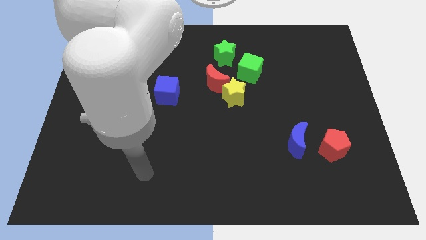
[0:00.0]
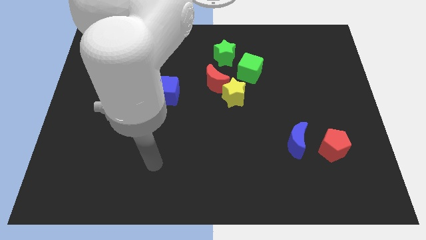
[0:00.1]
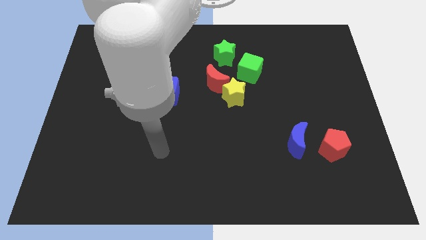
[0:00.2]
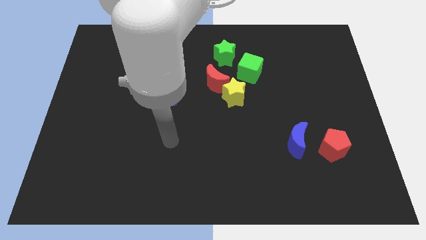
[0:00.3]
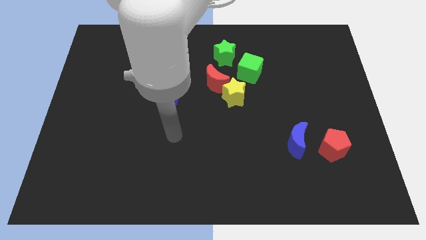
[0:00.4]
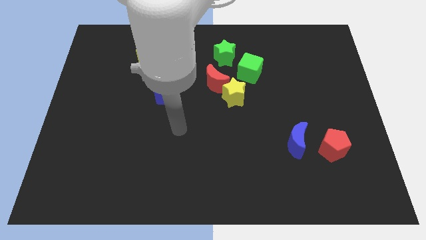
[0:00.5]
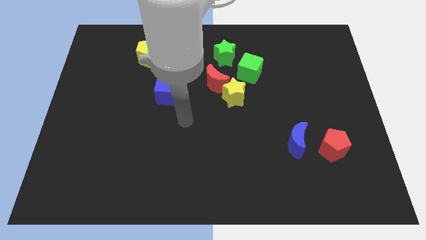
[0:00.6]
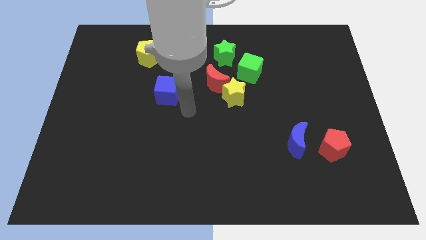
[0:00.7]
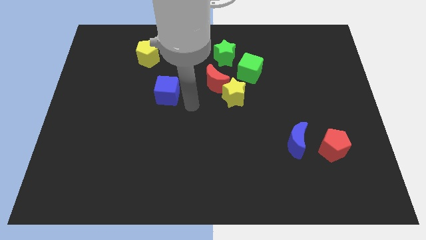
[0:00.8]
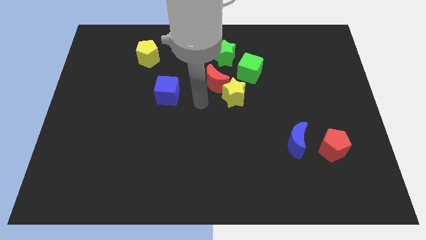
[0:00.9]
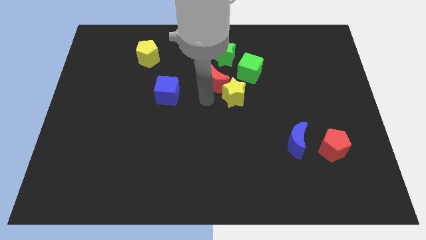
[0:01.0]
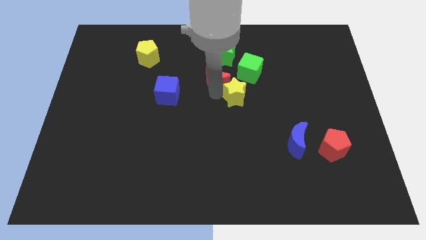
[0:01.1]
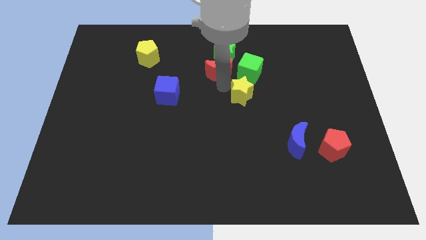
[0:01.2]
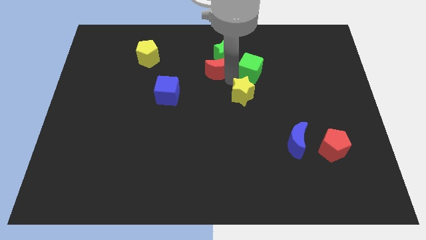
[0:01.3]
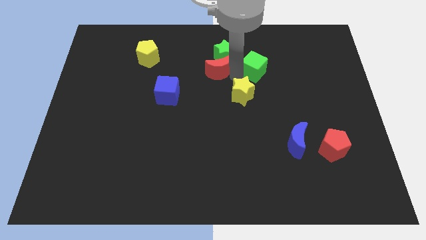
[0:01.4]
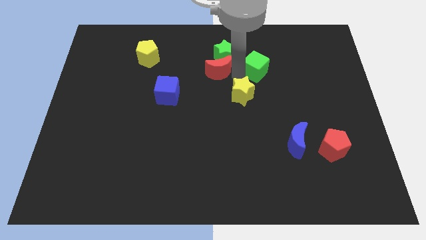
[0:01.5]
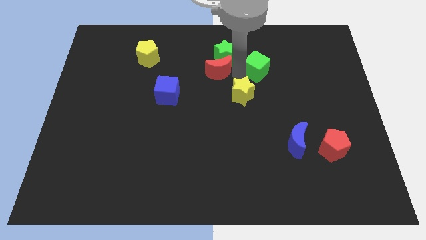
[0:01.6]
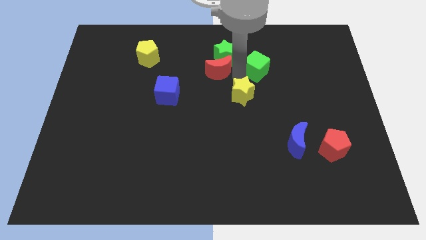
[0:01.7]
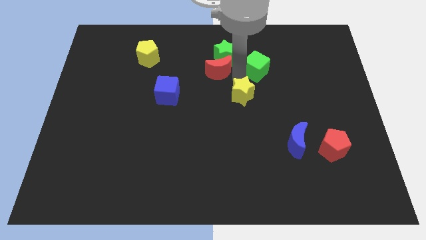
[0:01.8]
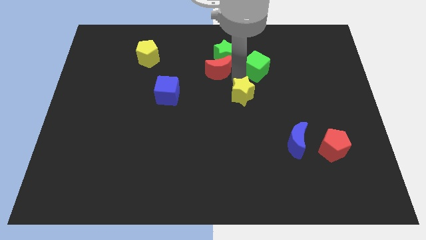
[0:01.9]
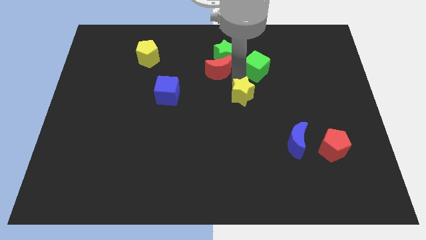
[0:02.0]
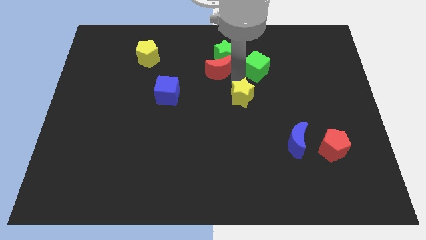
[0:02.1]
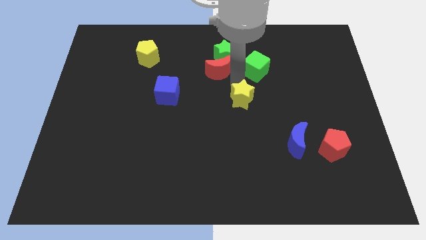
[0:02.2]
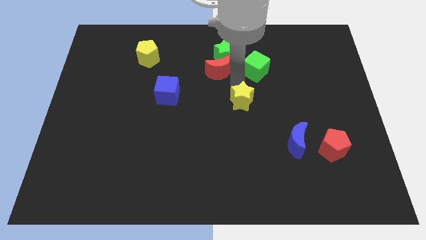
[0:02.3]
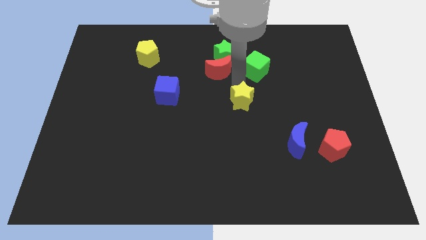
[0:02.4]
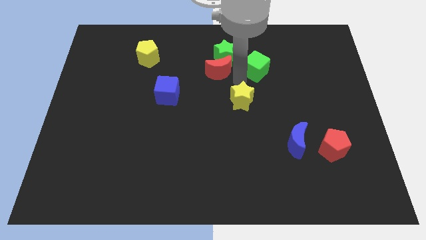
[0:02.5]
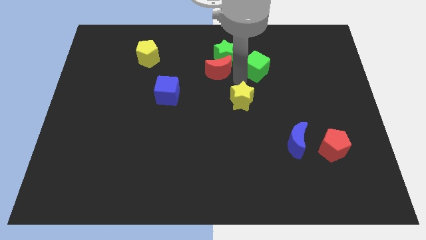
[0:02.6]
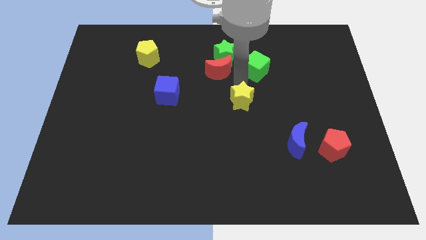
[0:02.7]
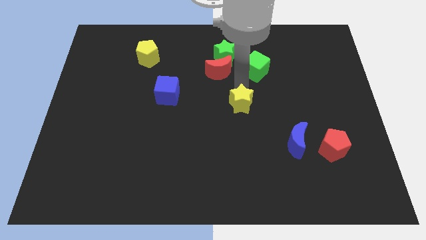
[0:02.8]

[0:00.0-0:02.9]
separate the yellow star from the red moon and green cube

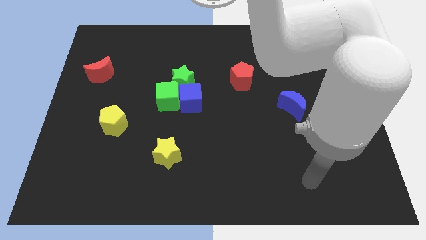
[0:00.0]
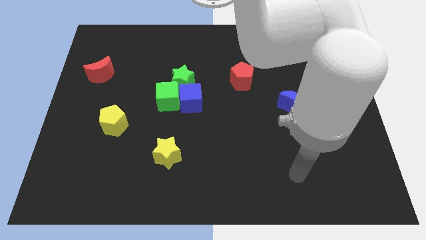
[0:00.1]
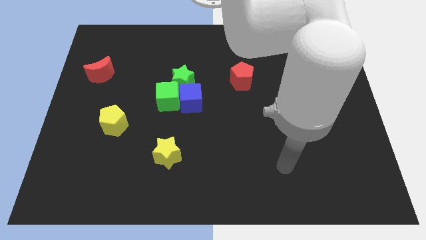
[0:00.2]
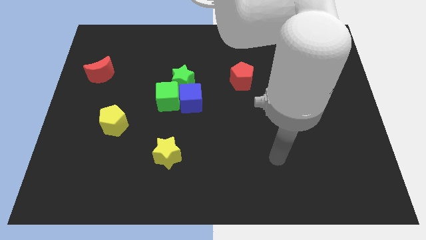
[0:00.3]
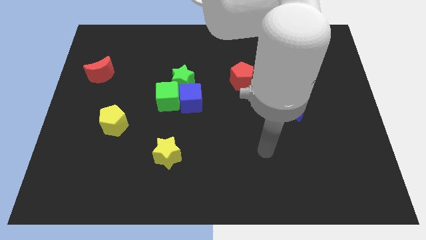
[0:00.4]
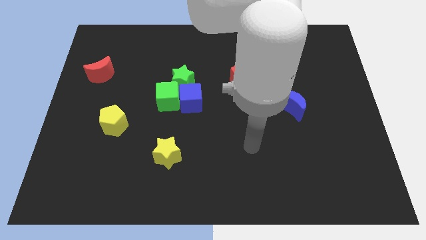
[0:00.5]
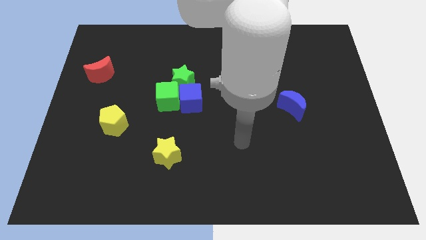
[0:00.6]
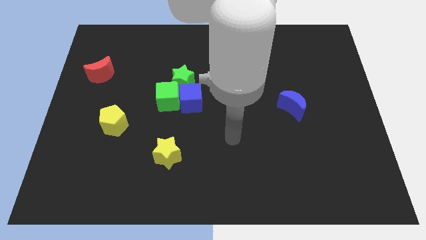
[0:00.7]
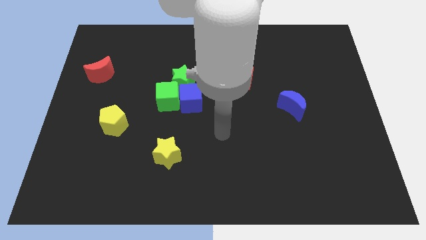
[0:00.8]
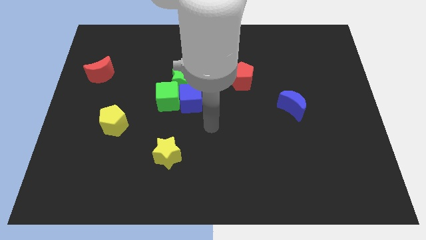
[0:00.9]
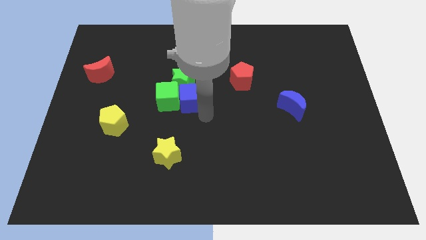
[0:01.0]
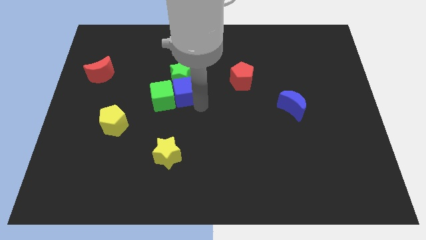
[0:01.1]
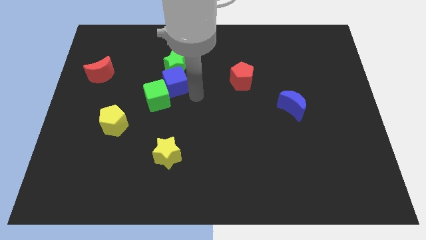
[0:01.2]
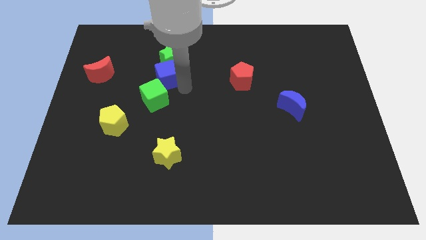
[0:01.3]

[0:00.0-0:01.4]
pull the green cube apart from the blue cube and green star

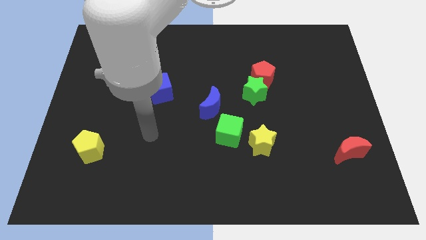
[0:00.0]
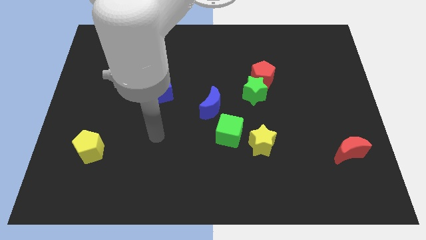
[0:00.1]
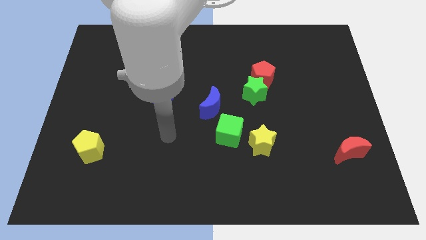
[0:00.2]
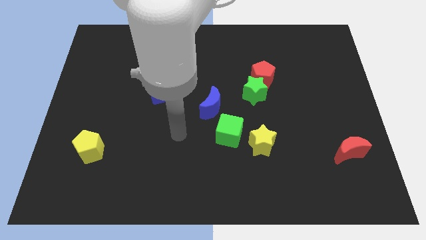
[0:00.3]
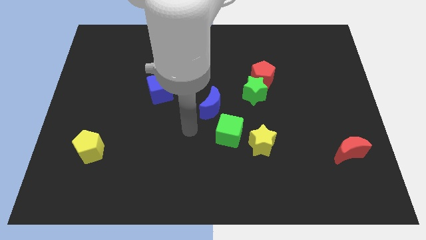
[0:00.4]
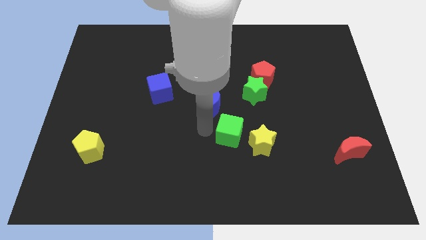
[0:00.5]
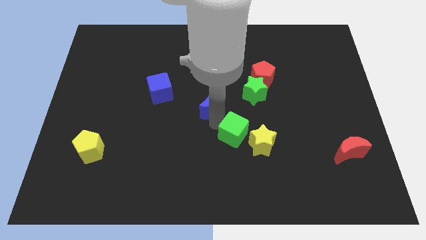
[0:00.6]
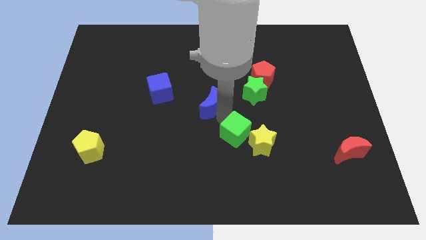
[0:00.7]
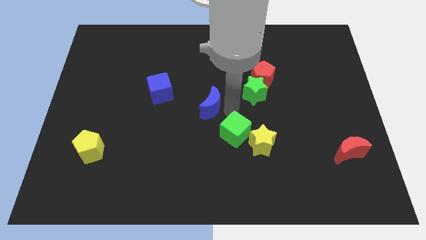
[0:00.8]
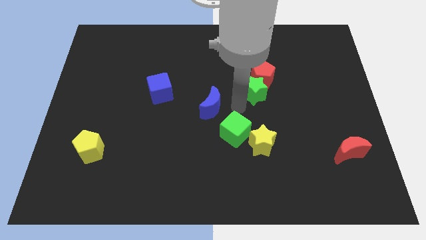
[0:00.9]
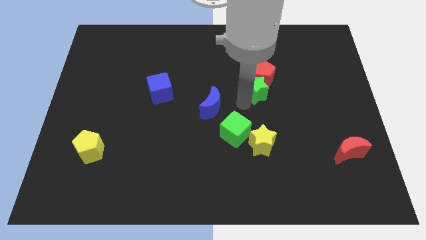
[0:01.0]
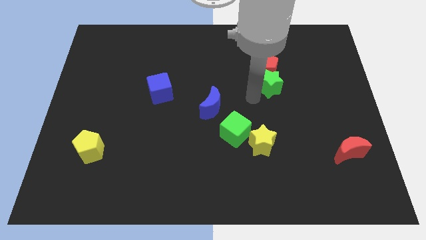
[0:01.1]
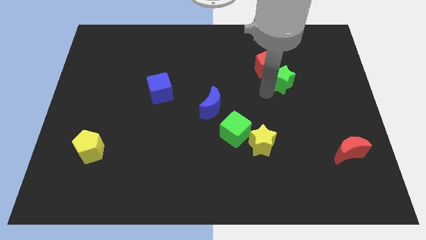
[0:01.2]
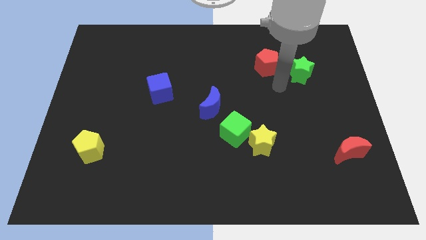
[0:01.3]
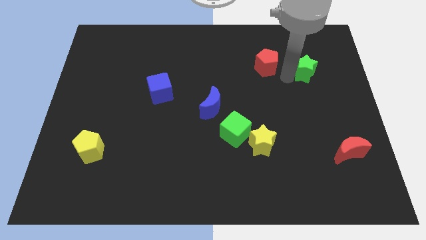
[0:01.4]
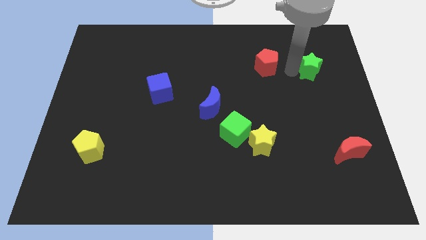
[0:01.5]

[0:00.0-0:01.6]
move the red pentagon away from the green star

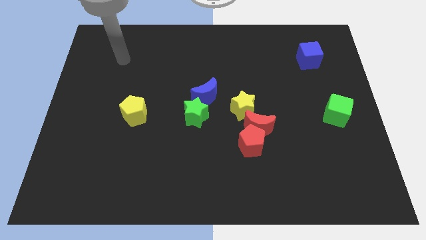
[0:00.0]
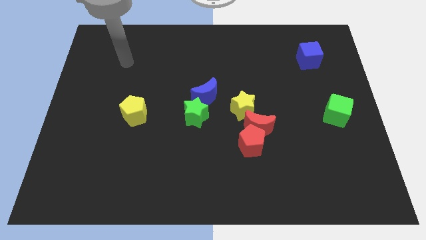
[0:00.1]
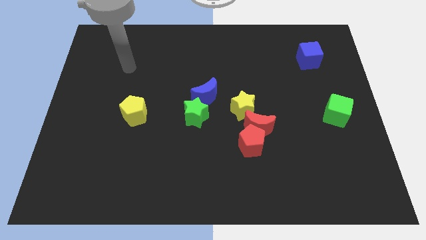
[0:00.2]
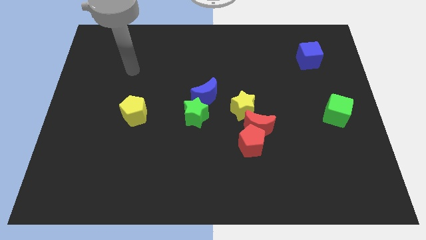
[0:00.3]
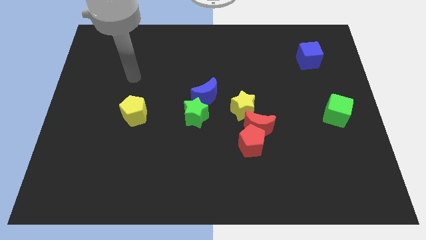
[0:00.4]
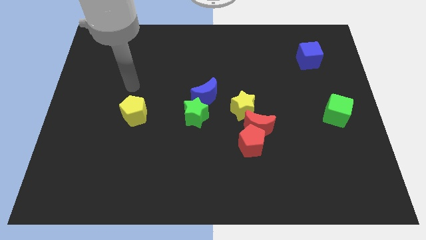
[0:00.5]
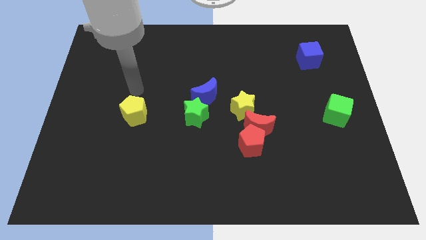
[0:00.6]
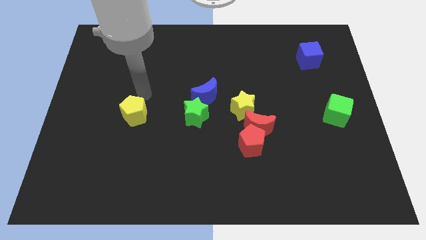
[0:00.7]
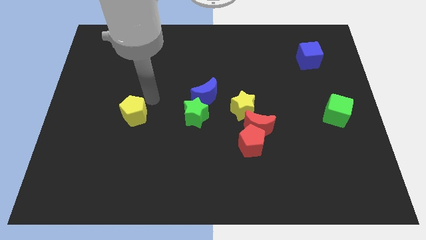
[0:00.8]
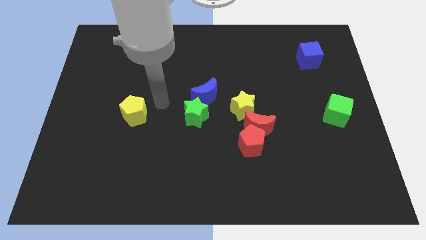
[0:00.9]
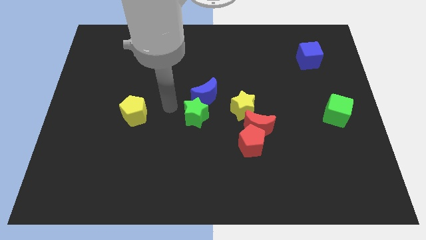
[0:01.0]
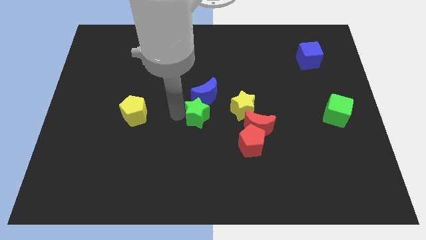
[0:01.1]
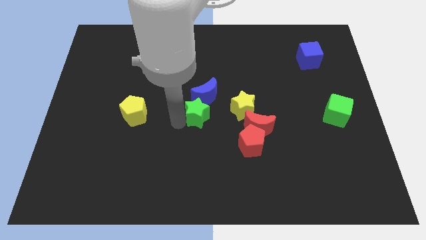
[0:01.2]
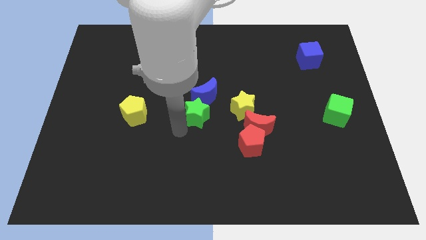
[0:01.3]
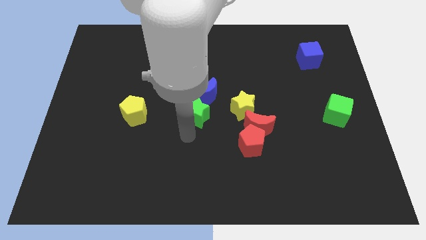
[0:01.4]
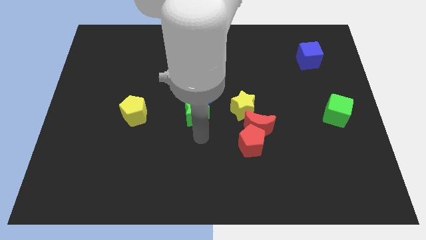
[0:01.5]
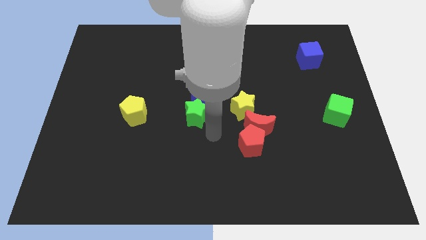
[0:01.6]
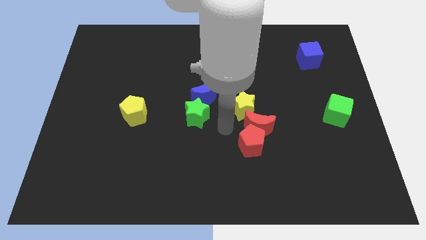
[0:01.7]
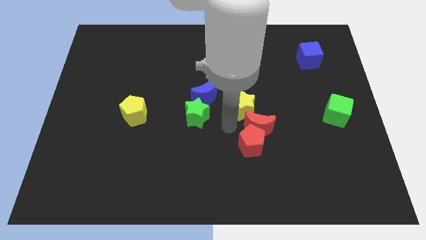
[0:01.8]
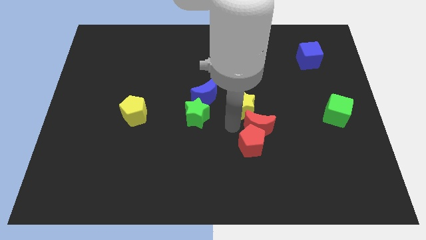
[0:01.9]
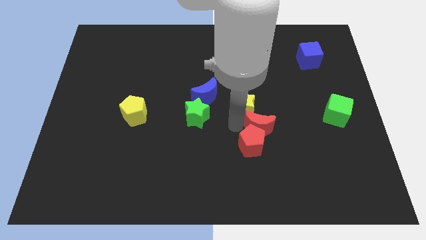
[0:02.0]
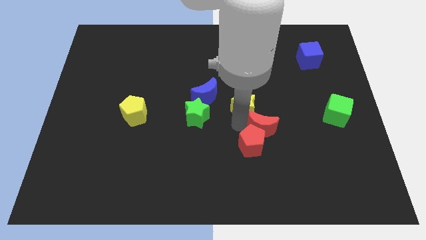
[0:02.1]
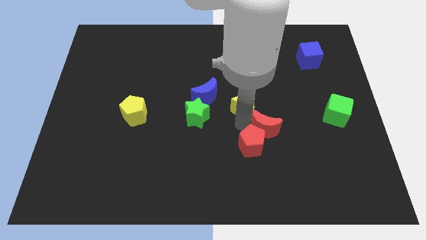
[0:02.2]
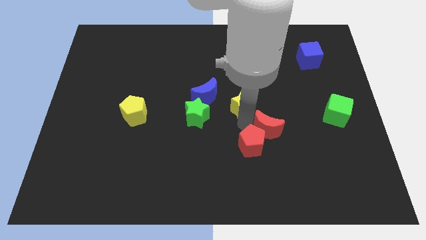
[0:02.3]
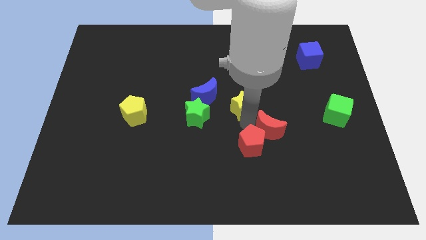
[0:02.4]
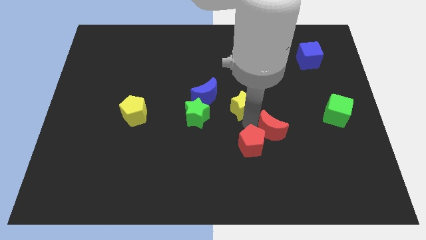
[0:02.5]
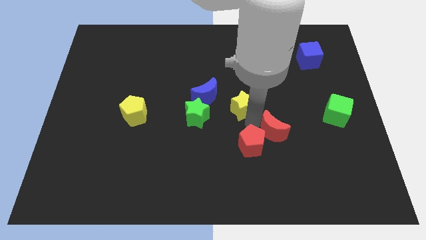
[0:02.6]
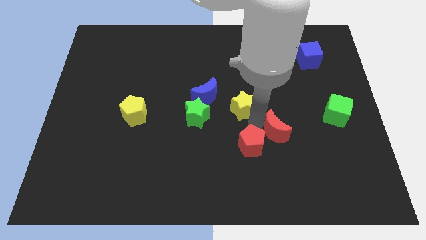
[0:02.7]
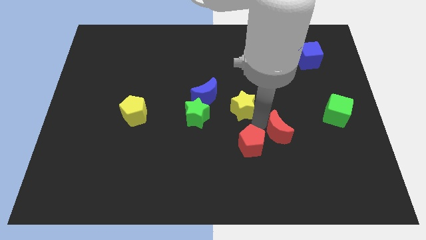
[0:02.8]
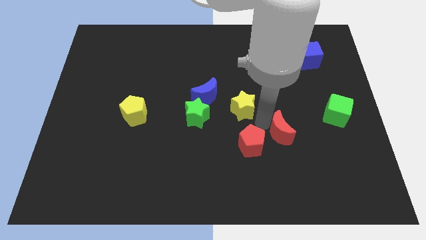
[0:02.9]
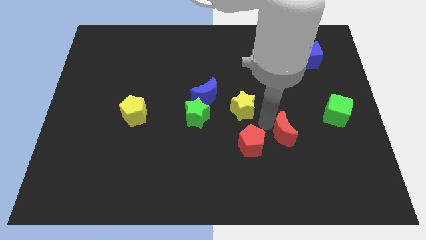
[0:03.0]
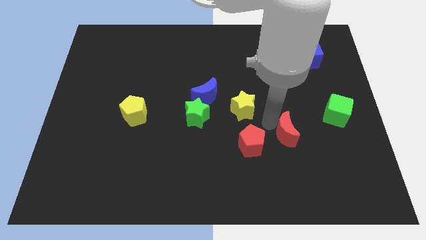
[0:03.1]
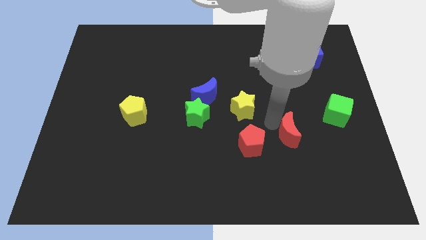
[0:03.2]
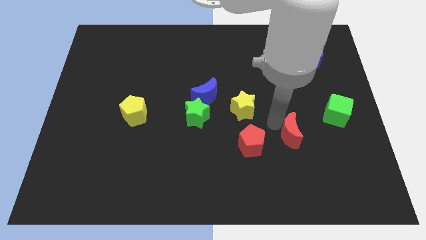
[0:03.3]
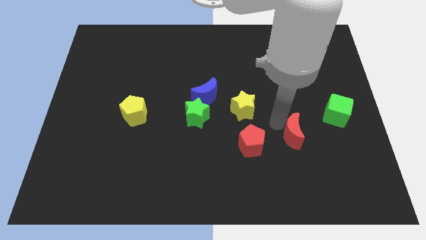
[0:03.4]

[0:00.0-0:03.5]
move the red moon away from the red pentagon and yellow star

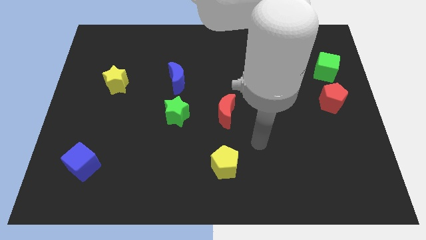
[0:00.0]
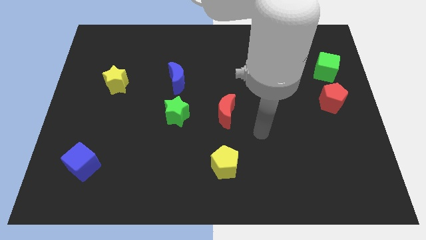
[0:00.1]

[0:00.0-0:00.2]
separate the red pentagon from the green cube
